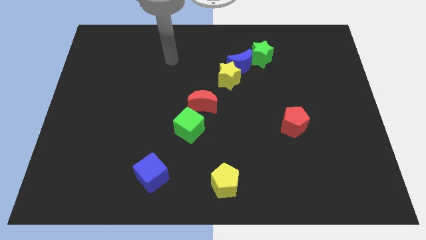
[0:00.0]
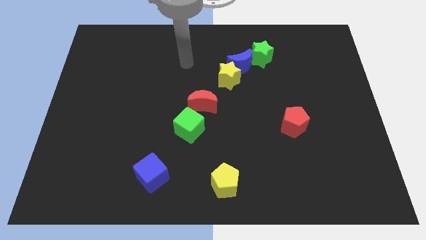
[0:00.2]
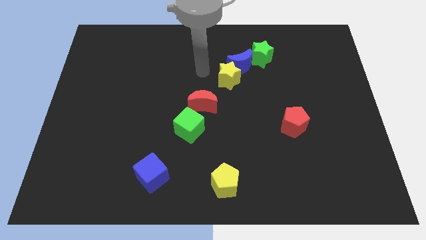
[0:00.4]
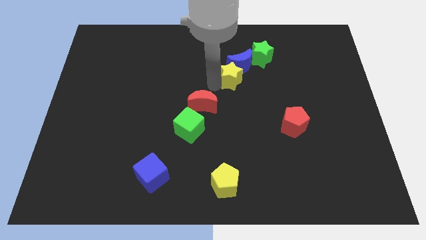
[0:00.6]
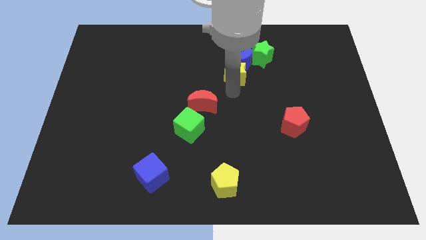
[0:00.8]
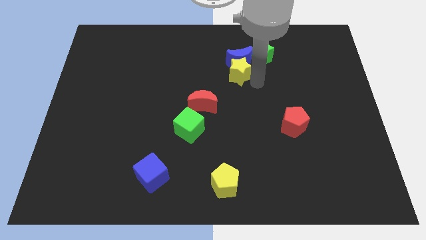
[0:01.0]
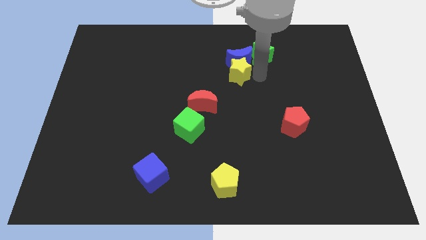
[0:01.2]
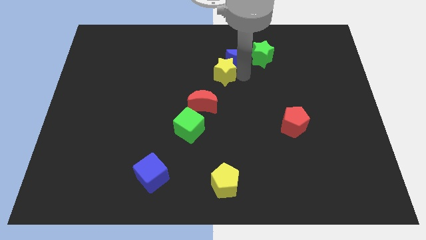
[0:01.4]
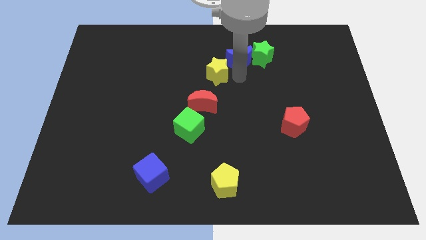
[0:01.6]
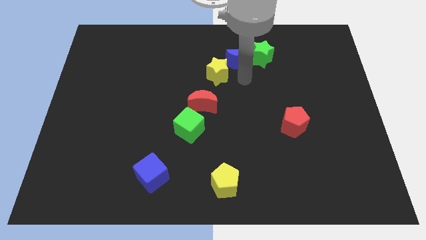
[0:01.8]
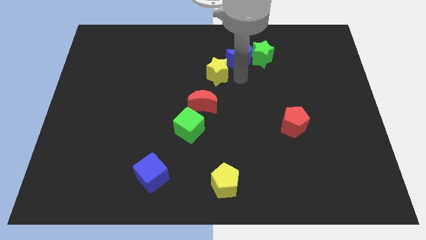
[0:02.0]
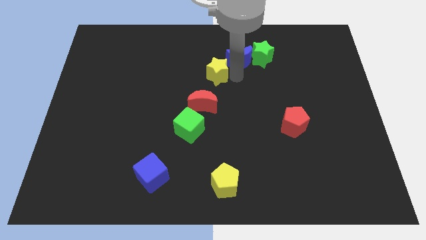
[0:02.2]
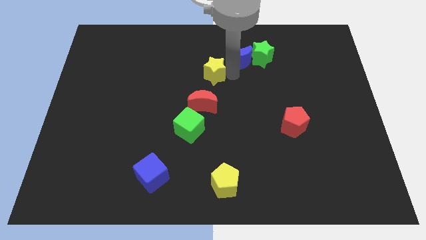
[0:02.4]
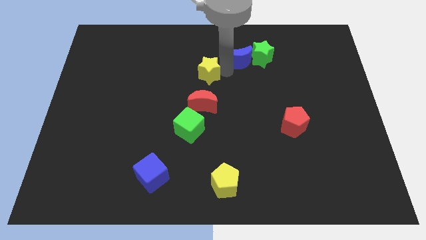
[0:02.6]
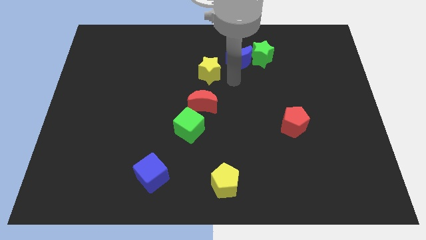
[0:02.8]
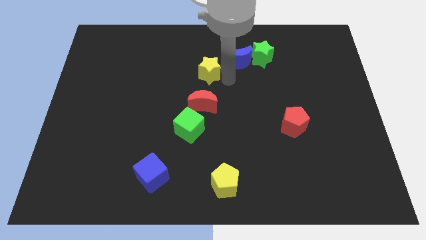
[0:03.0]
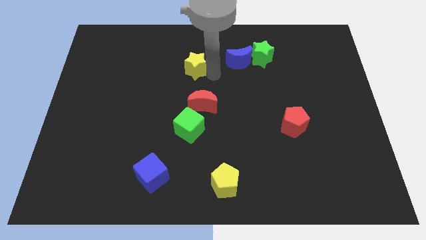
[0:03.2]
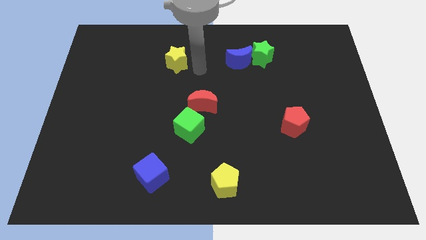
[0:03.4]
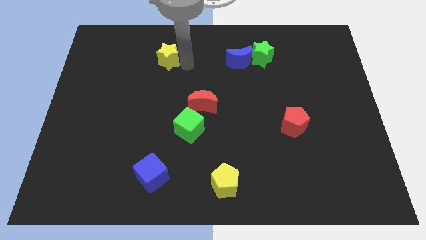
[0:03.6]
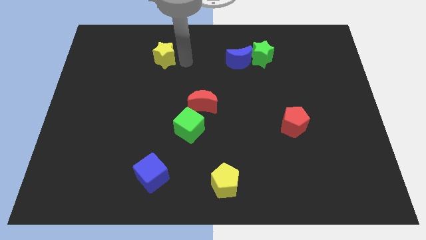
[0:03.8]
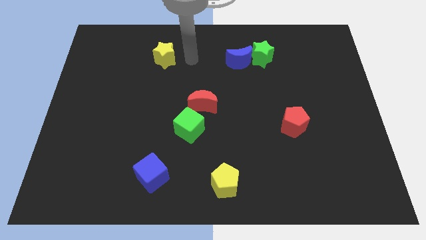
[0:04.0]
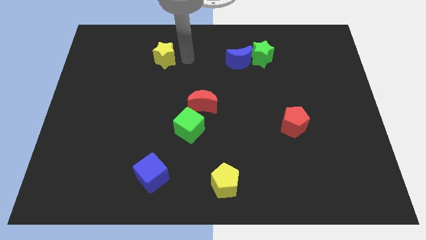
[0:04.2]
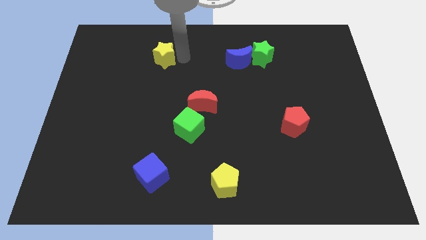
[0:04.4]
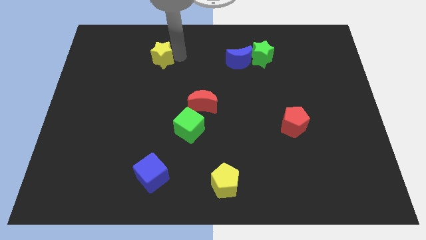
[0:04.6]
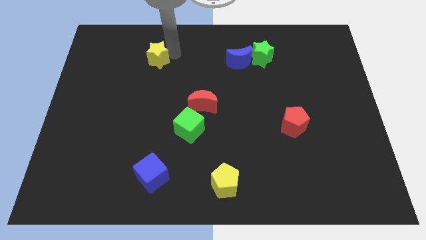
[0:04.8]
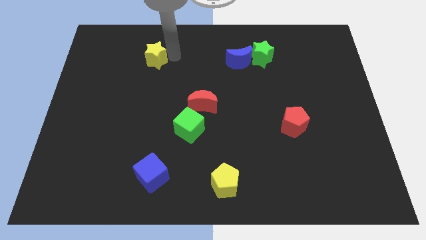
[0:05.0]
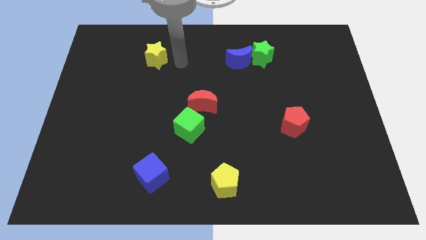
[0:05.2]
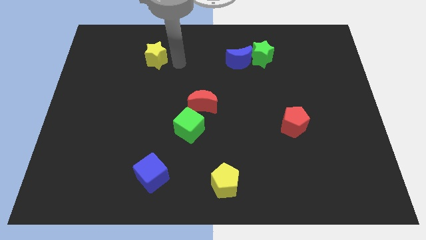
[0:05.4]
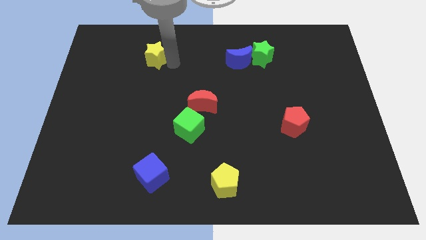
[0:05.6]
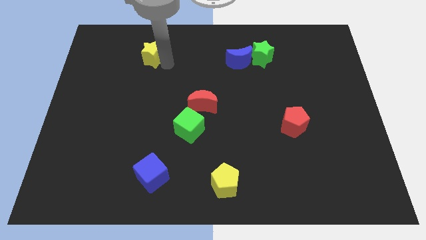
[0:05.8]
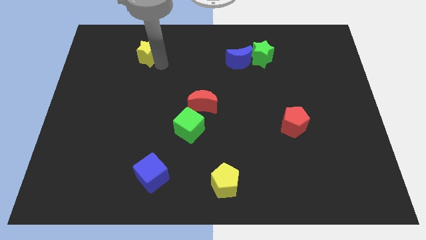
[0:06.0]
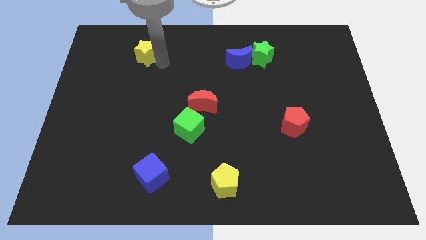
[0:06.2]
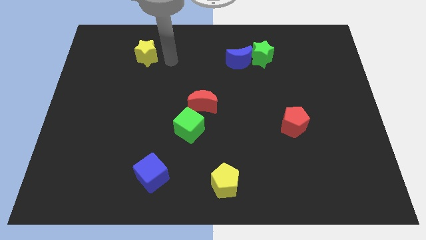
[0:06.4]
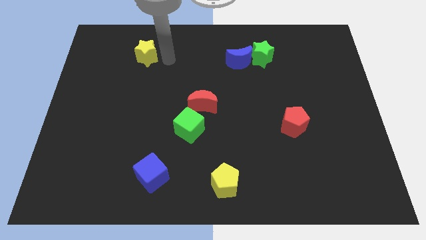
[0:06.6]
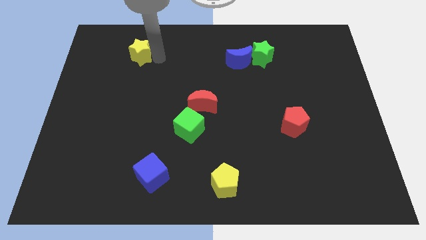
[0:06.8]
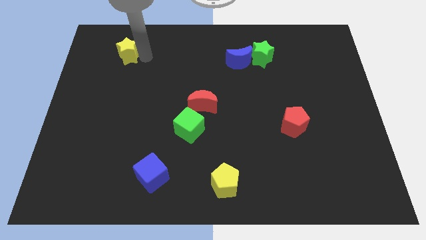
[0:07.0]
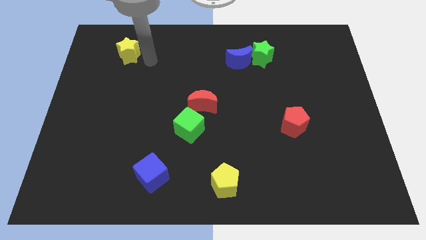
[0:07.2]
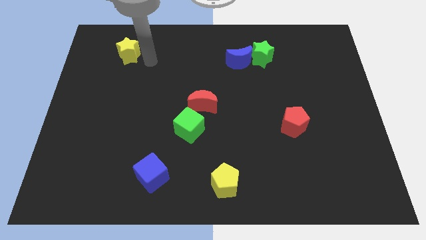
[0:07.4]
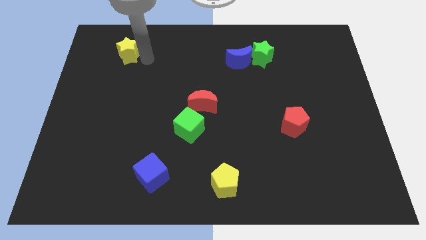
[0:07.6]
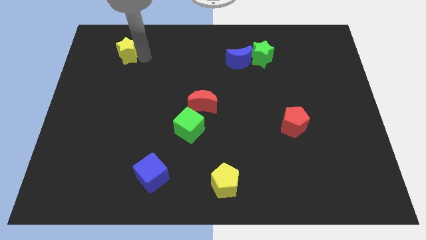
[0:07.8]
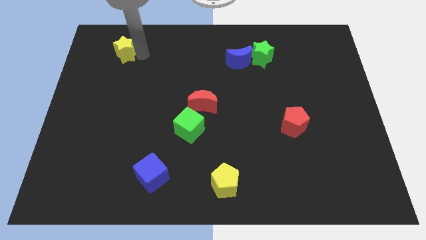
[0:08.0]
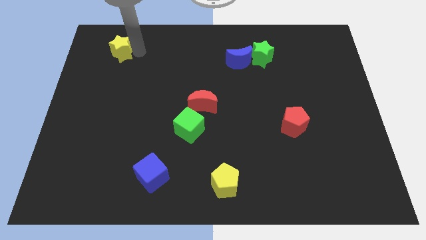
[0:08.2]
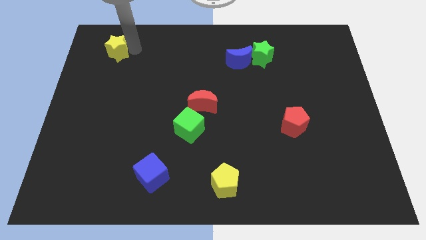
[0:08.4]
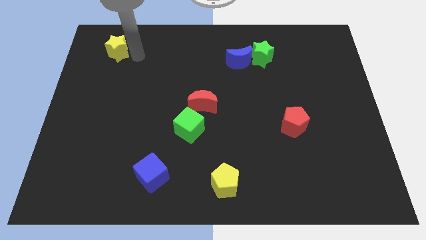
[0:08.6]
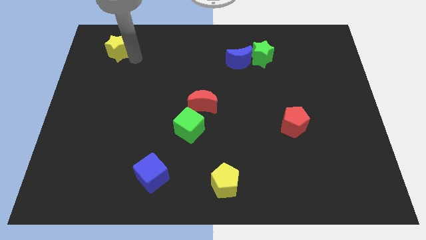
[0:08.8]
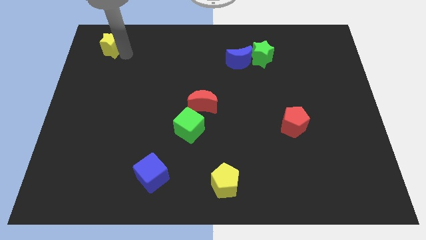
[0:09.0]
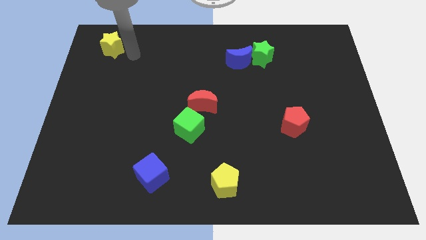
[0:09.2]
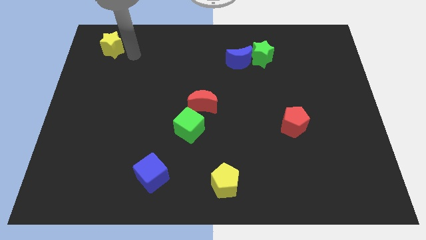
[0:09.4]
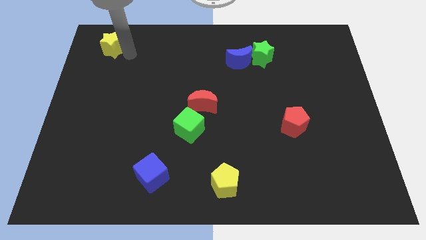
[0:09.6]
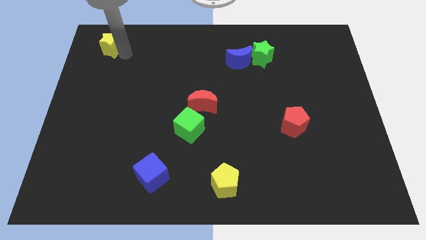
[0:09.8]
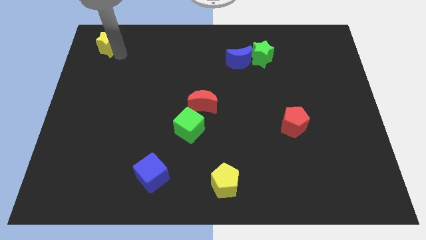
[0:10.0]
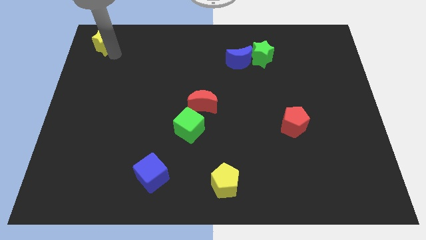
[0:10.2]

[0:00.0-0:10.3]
slide the yellow star to the upper left corner

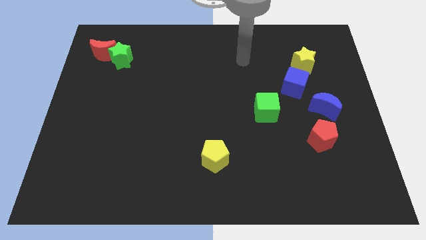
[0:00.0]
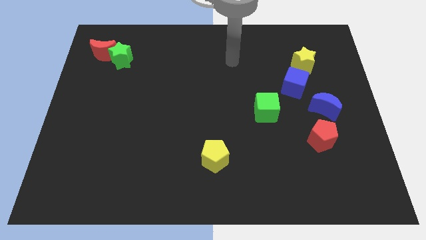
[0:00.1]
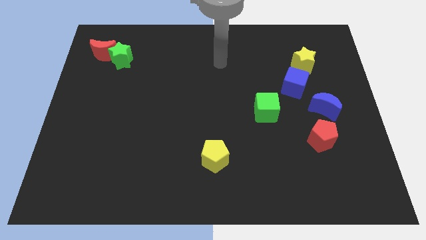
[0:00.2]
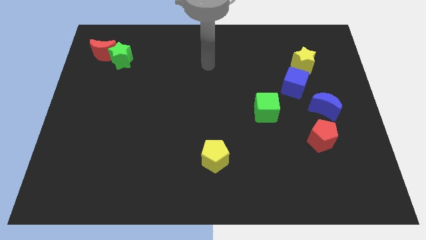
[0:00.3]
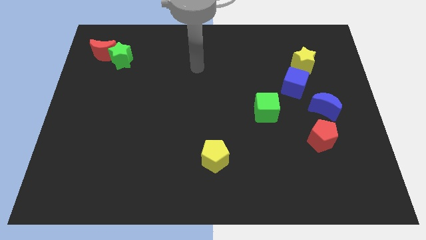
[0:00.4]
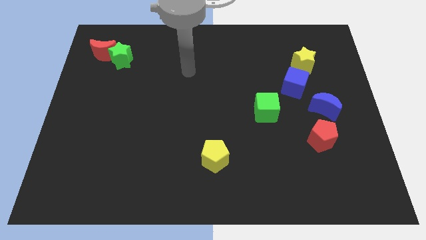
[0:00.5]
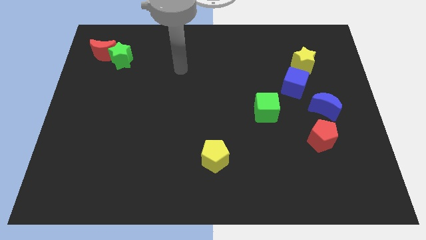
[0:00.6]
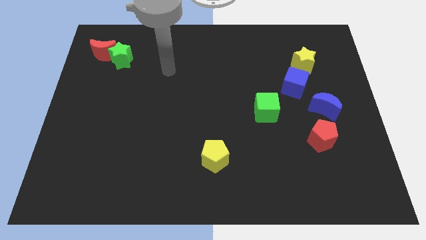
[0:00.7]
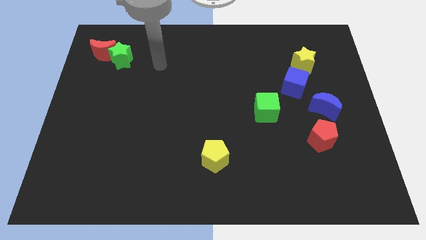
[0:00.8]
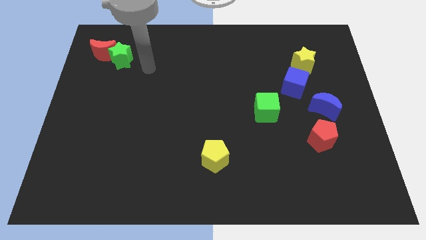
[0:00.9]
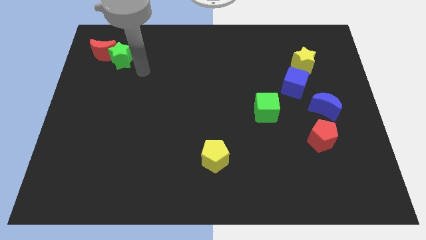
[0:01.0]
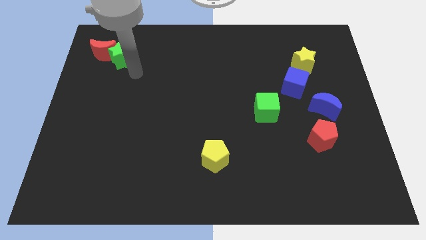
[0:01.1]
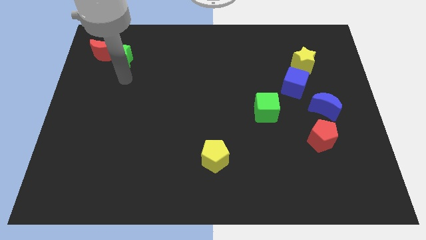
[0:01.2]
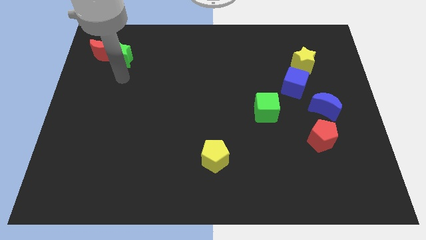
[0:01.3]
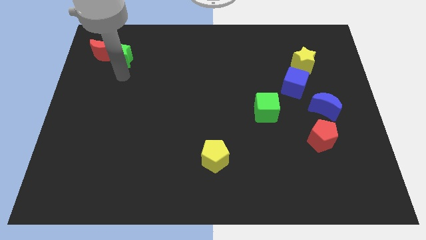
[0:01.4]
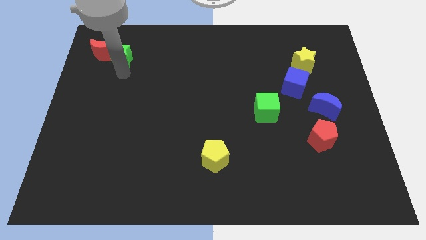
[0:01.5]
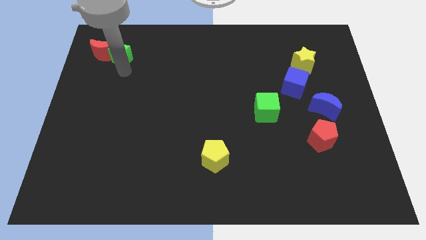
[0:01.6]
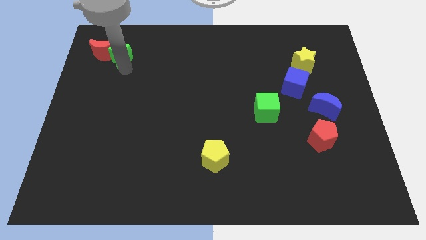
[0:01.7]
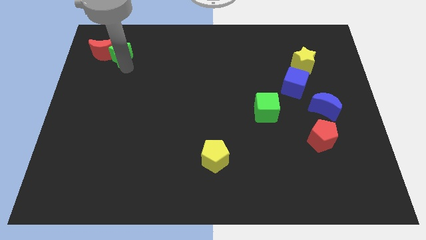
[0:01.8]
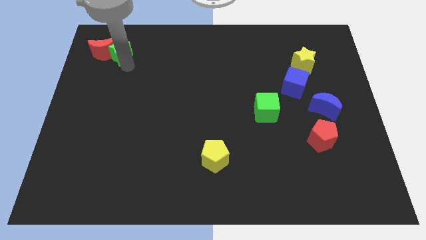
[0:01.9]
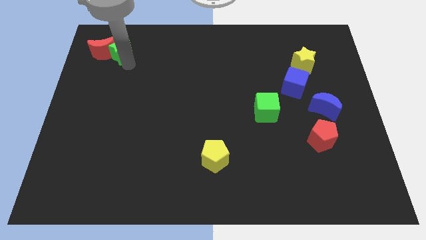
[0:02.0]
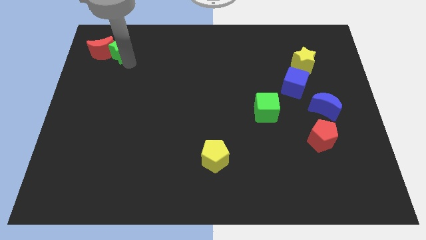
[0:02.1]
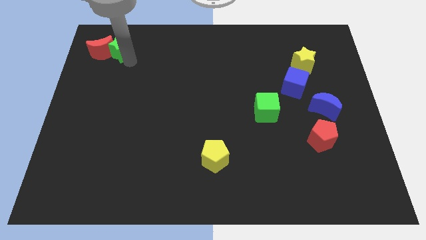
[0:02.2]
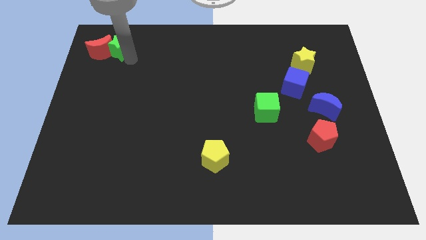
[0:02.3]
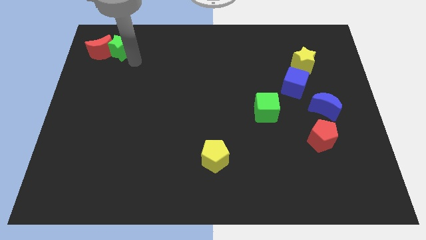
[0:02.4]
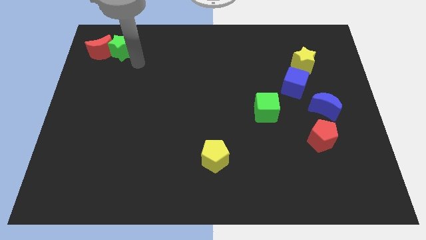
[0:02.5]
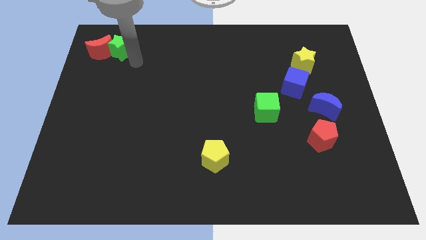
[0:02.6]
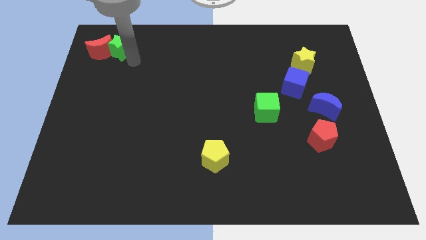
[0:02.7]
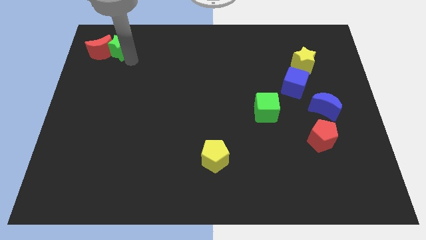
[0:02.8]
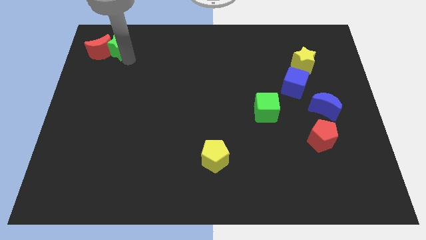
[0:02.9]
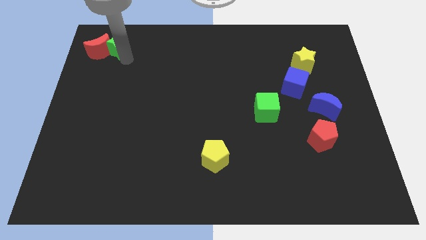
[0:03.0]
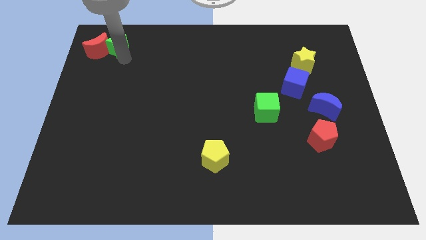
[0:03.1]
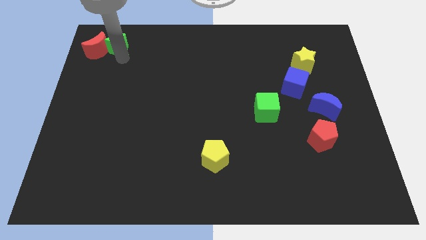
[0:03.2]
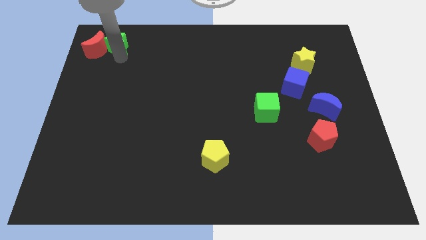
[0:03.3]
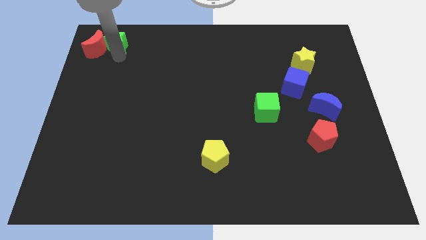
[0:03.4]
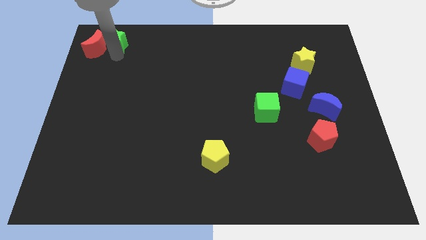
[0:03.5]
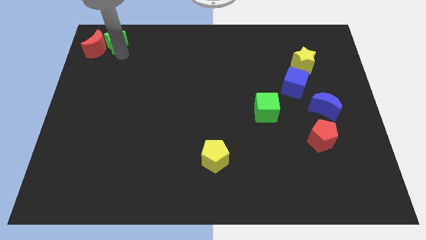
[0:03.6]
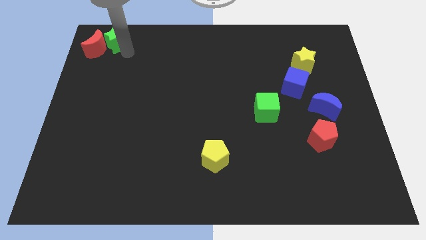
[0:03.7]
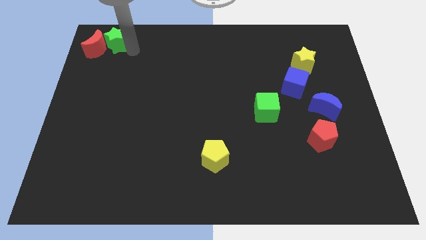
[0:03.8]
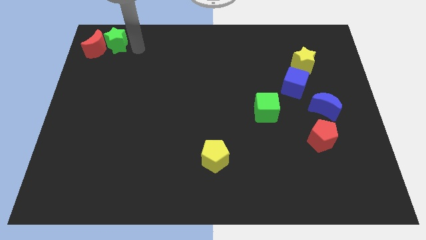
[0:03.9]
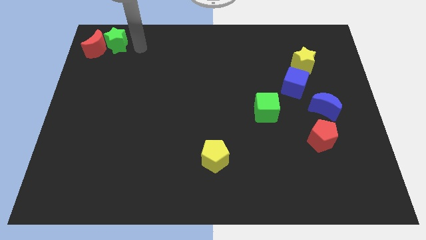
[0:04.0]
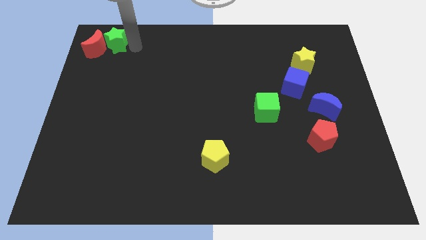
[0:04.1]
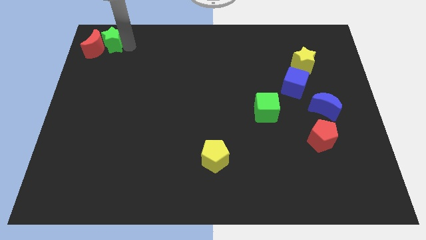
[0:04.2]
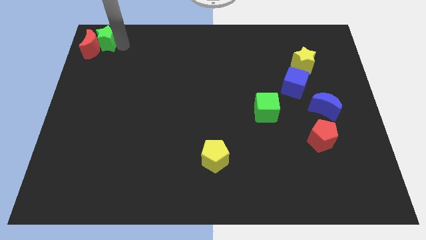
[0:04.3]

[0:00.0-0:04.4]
put the green star to the top left
